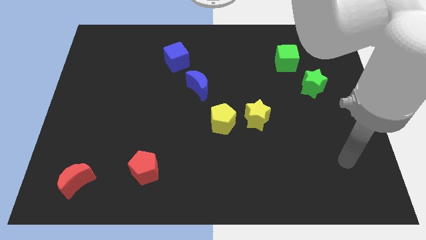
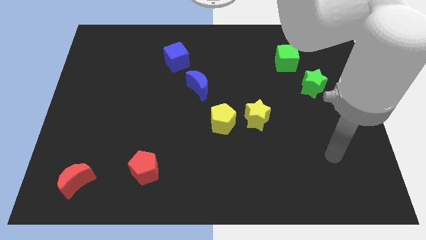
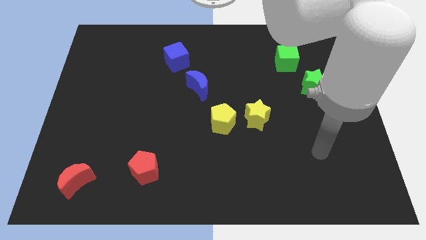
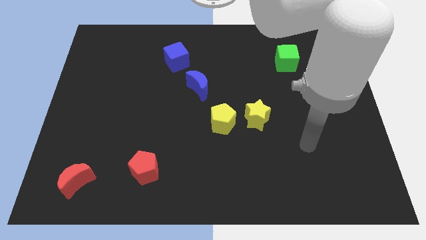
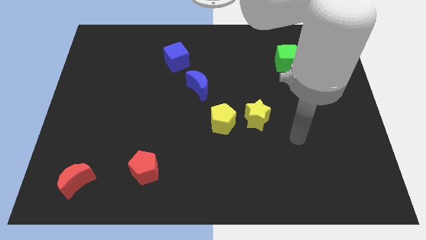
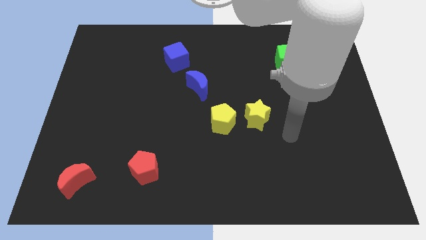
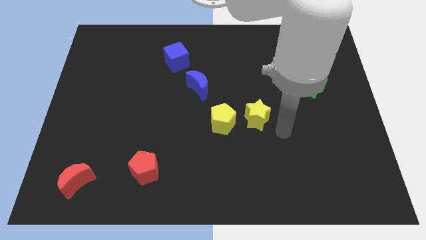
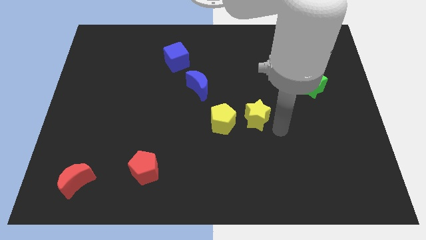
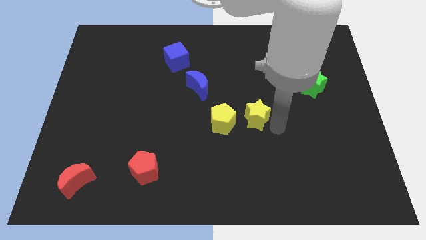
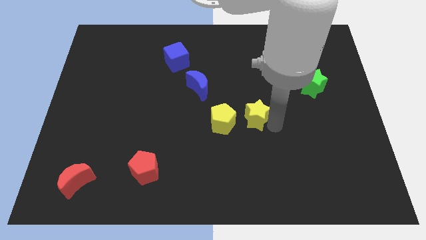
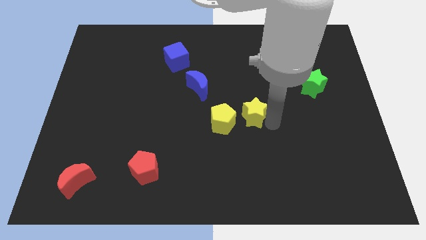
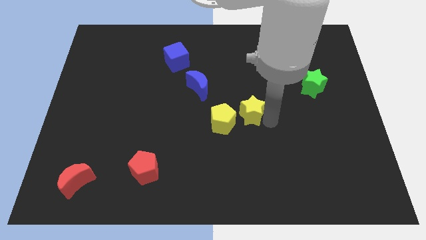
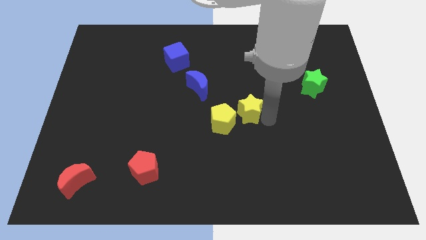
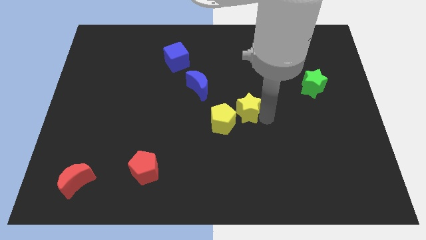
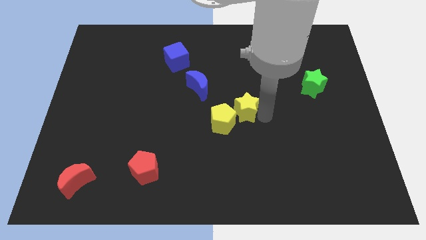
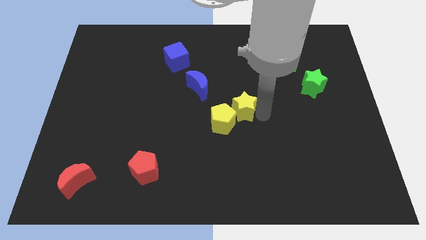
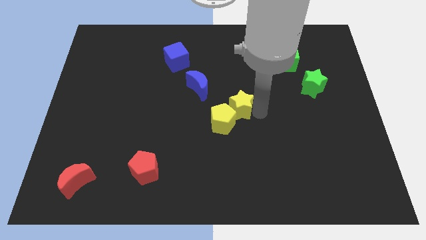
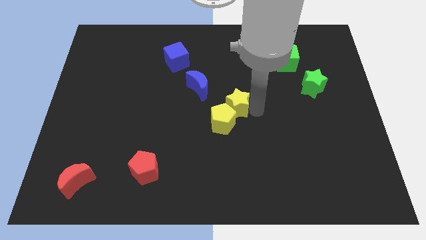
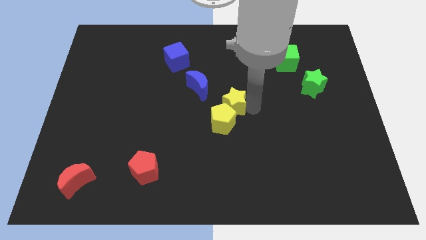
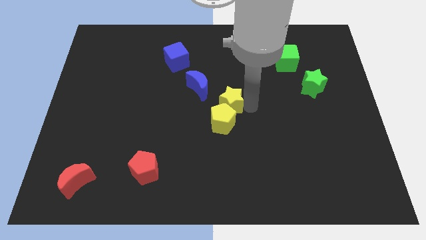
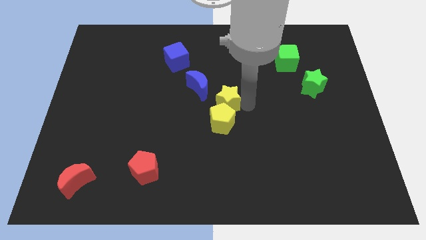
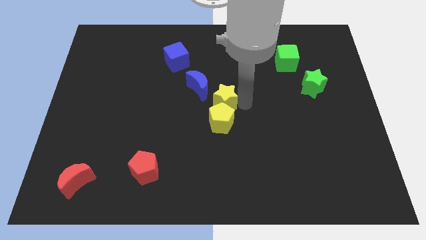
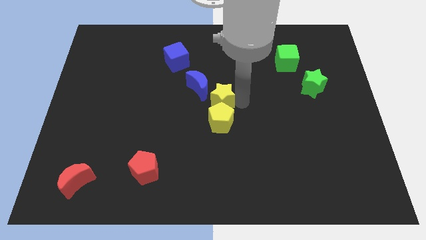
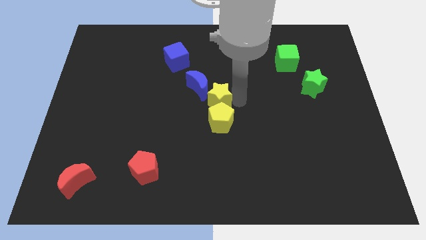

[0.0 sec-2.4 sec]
move the yellow star to the left a bit

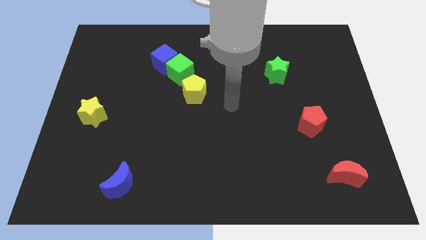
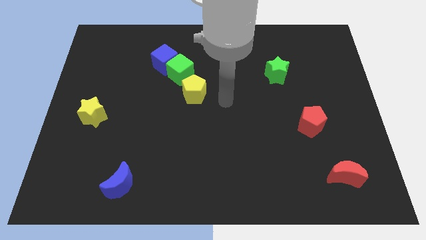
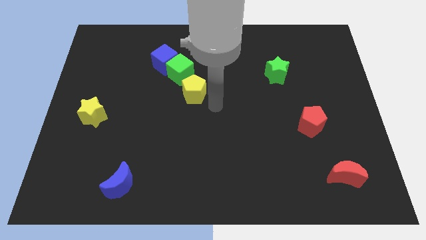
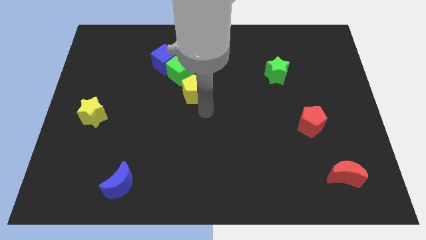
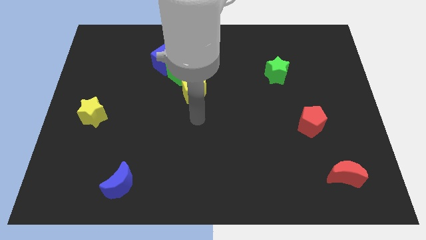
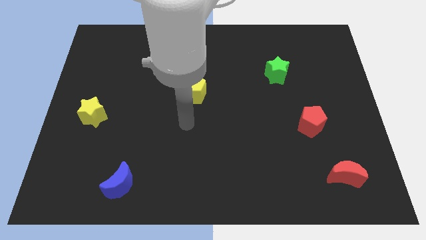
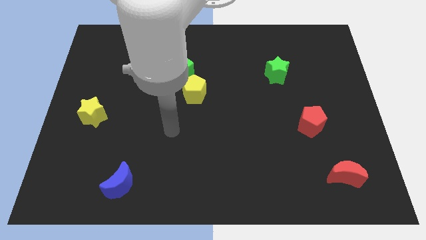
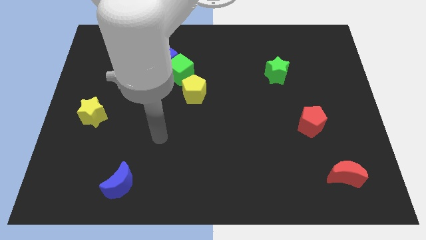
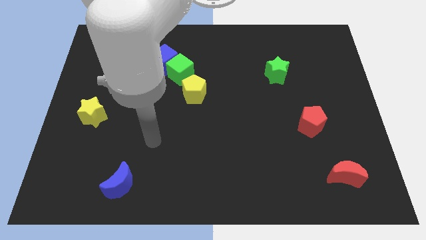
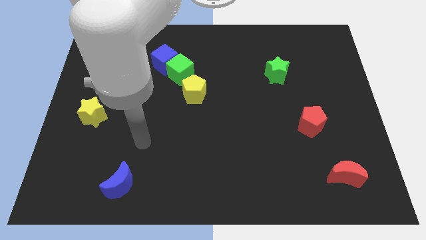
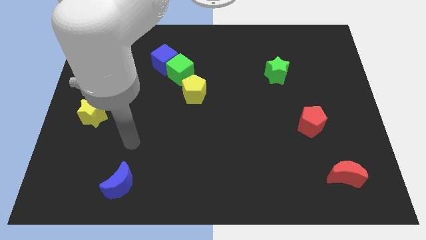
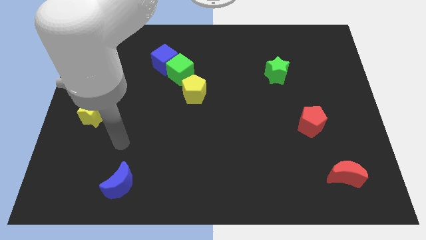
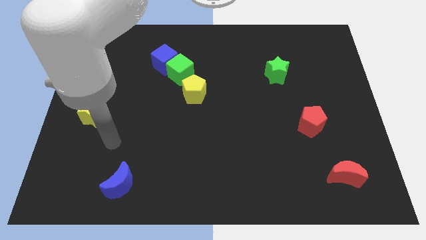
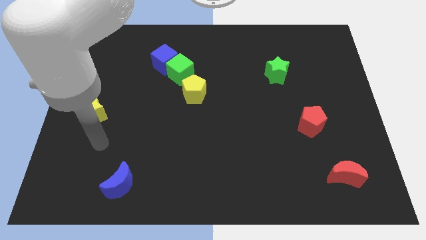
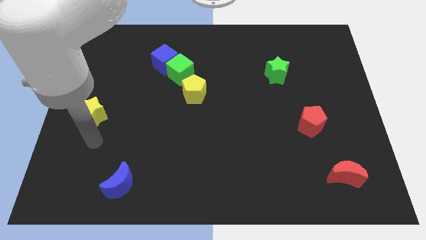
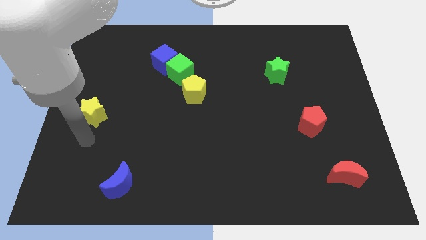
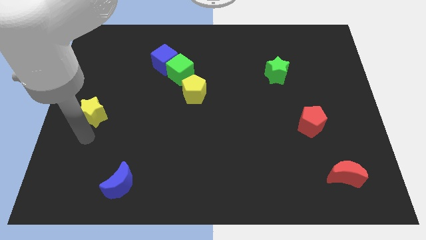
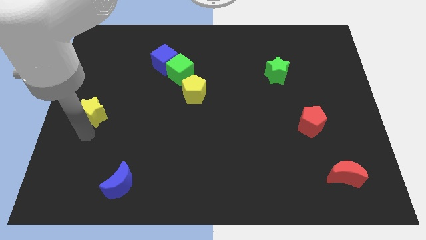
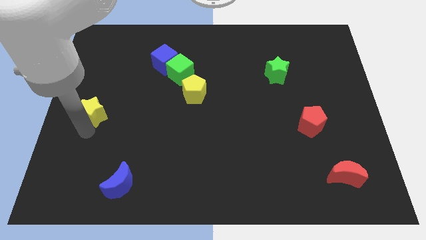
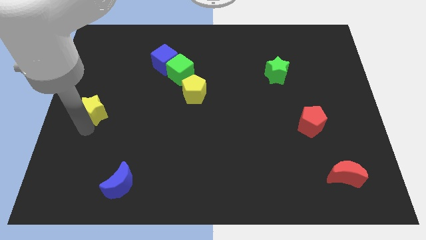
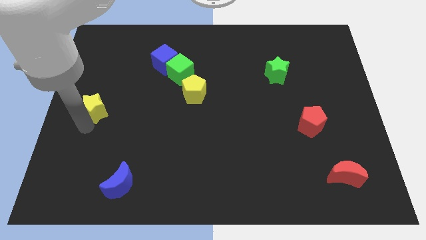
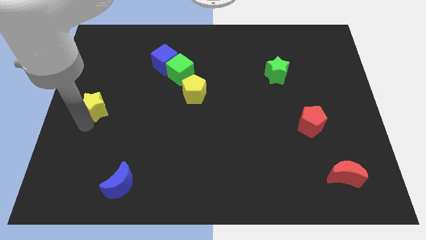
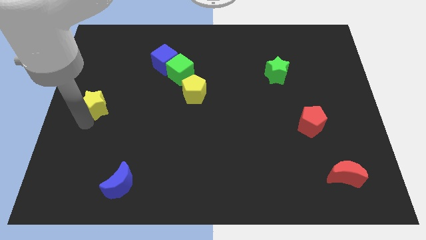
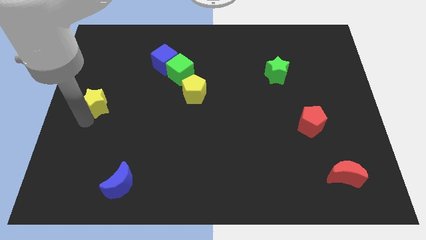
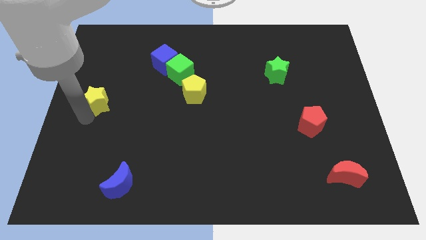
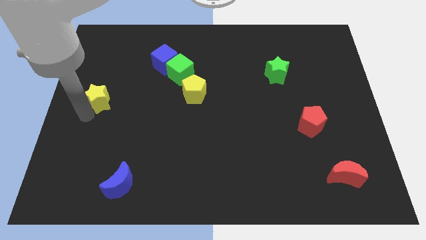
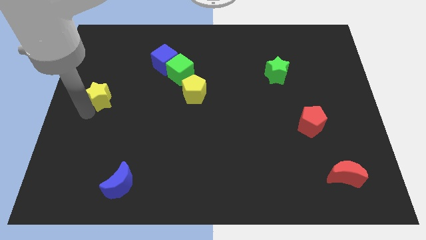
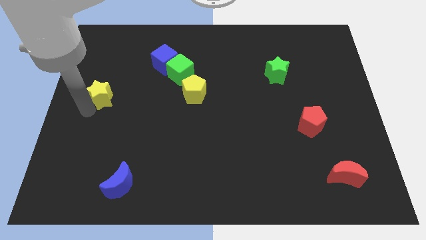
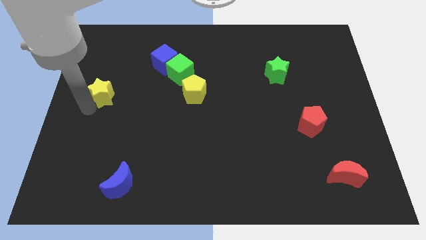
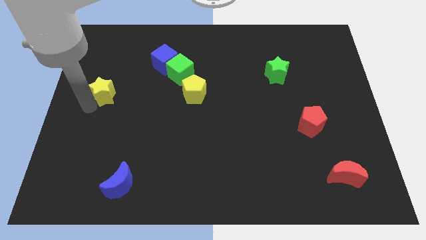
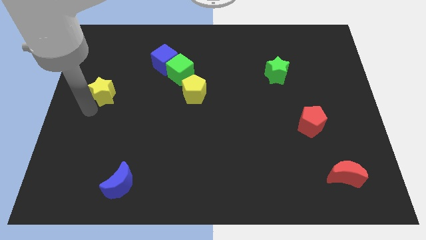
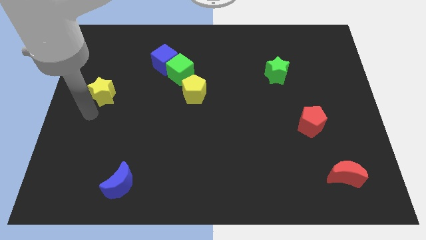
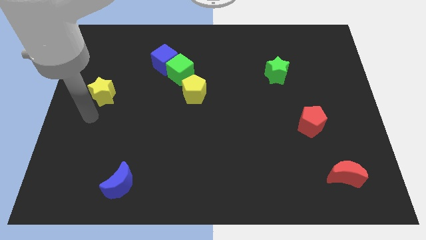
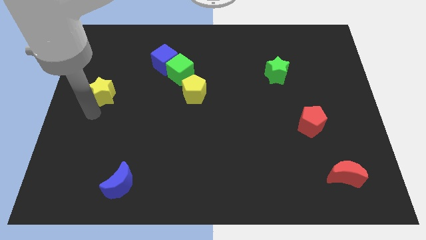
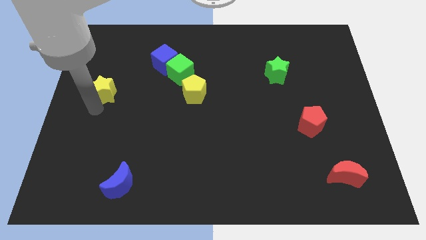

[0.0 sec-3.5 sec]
slightly push the yellow star upwards

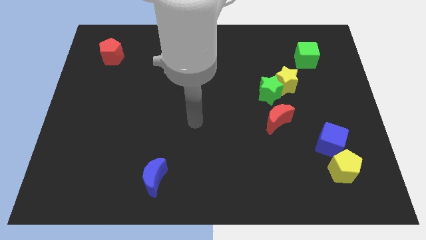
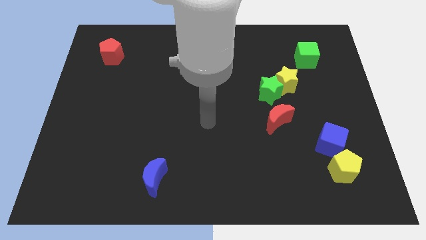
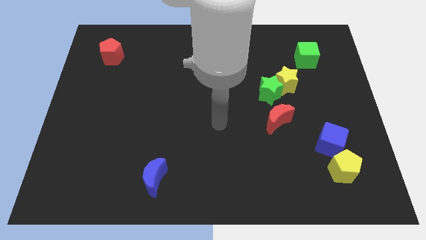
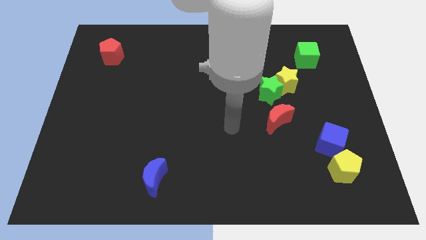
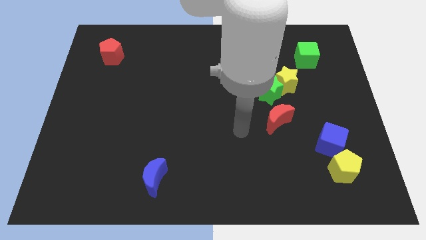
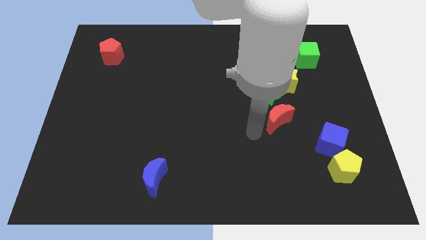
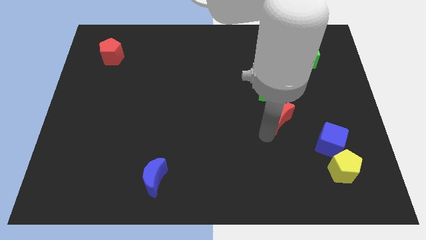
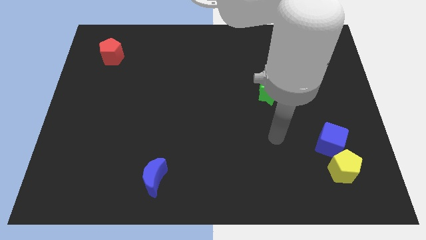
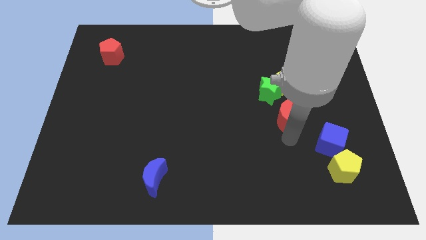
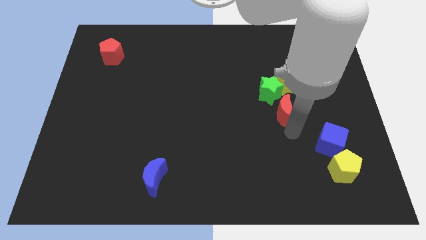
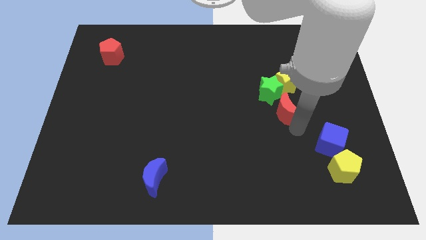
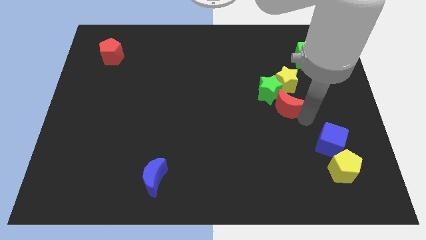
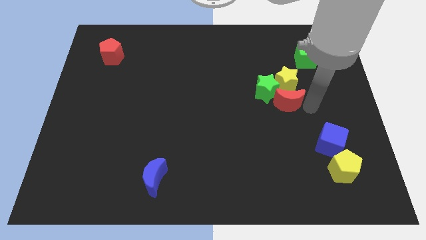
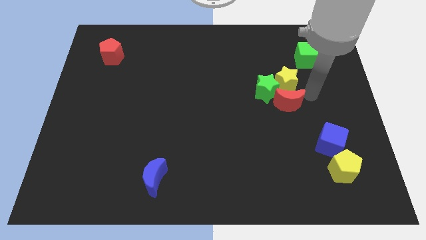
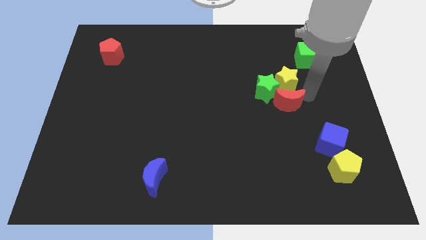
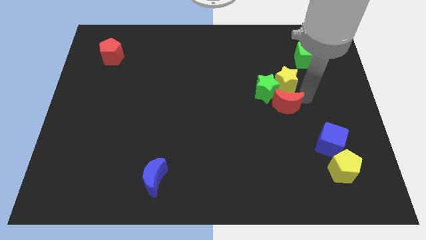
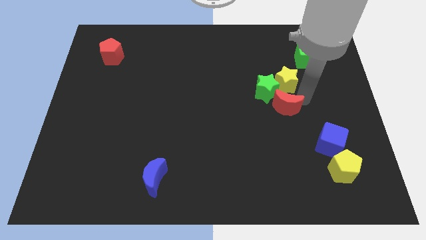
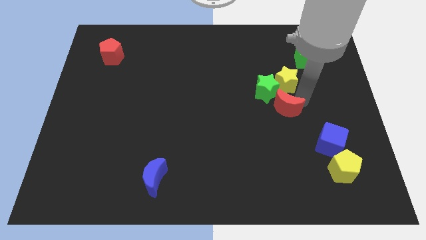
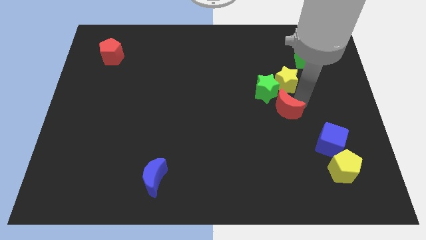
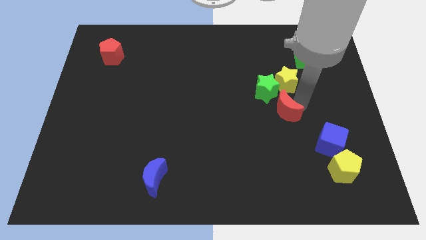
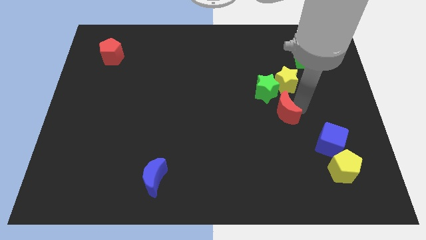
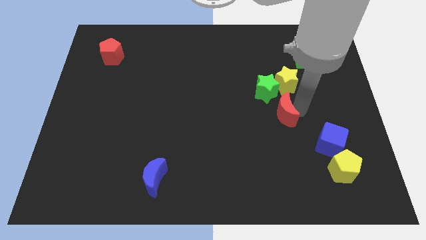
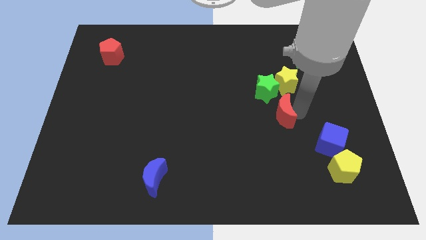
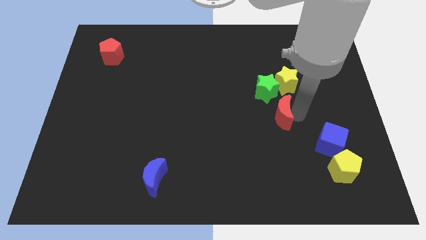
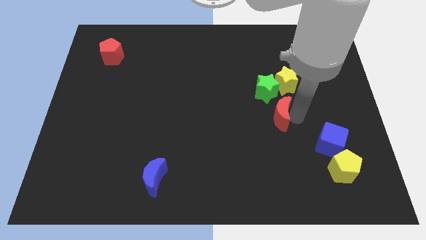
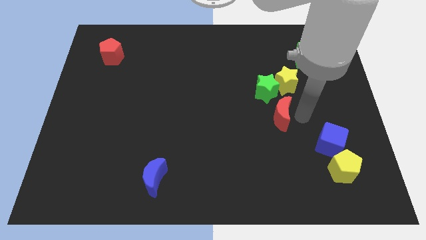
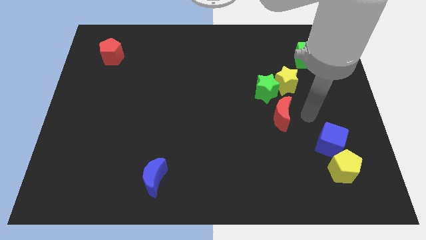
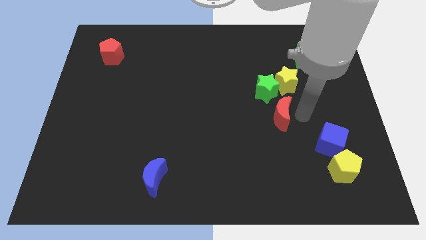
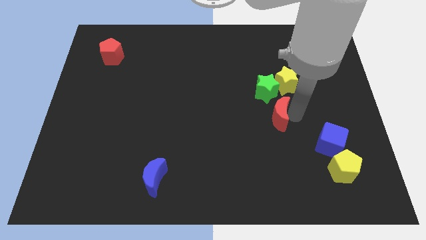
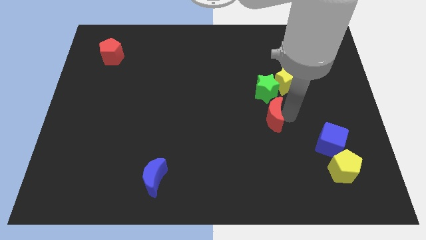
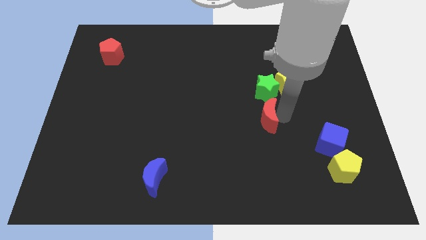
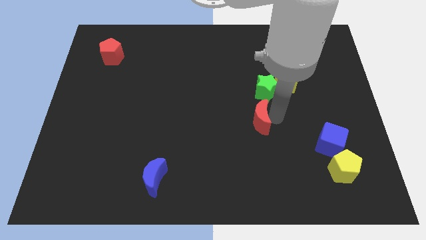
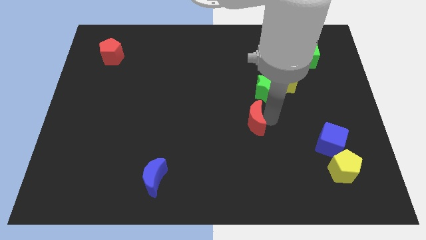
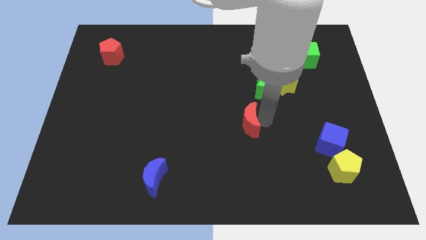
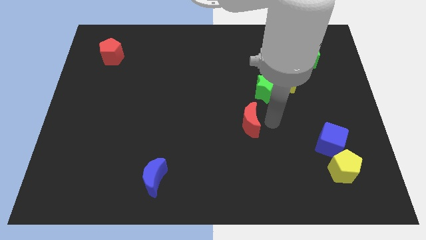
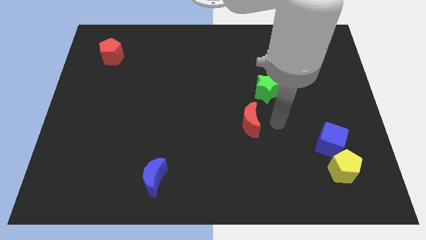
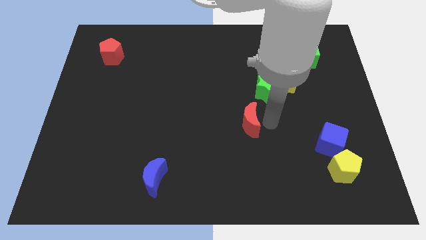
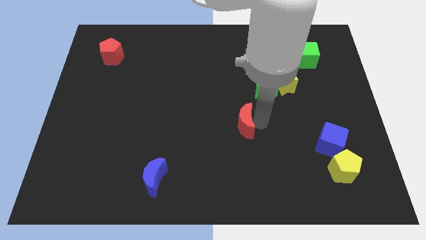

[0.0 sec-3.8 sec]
slightly push the red moon to the left
